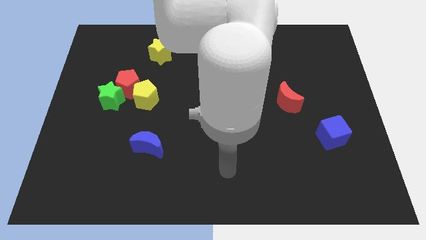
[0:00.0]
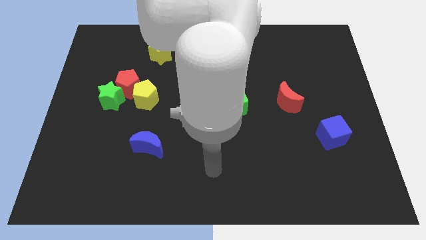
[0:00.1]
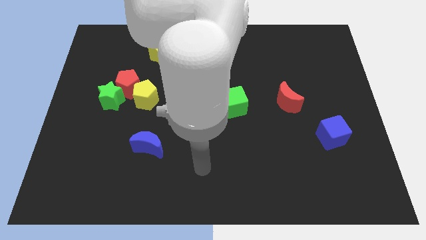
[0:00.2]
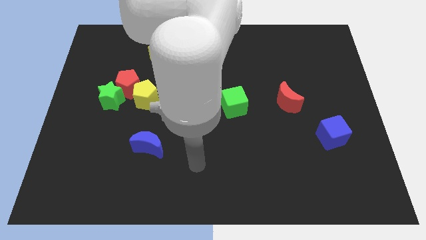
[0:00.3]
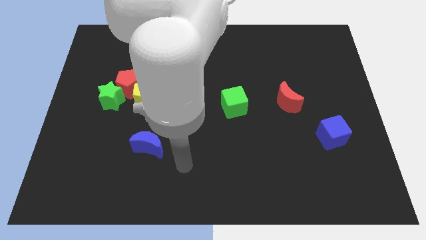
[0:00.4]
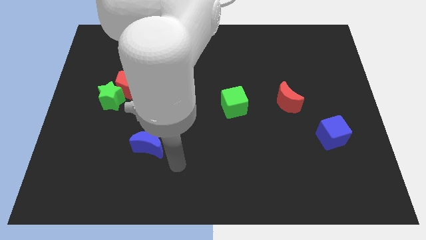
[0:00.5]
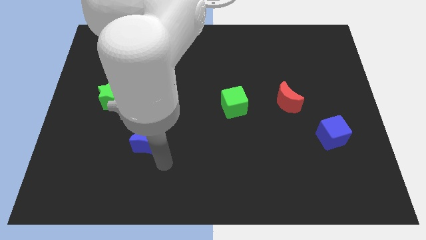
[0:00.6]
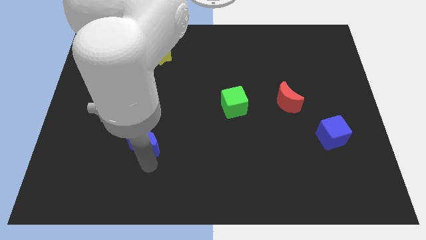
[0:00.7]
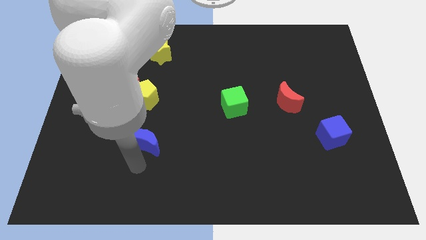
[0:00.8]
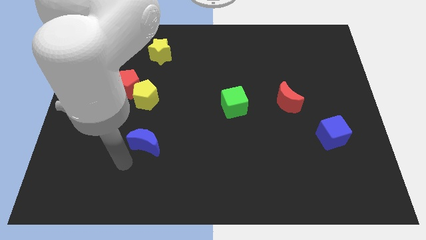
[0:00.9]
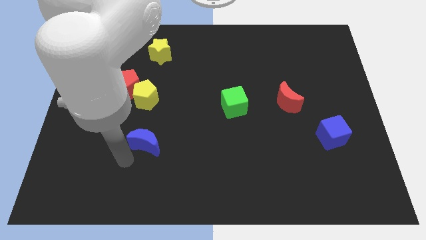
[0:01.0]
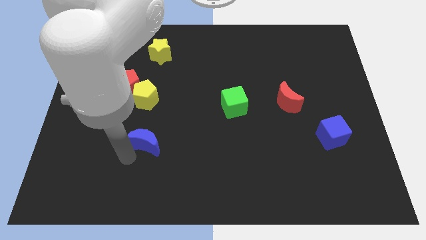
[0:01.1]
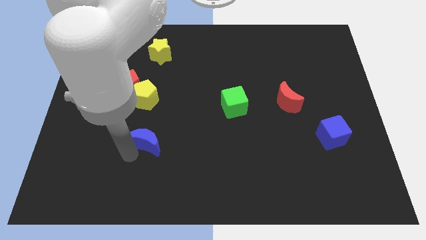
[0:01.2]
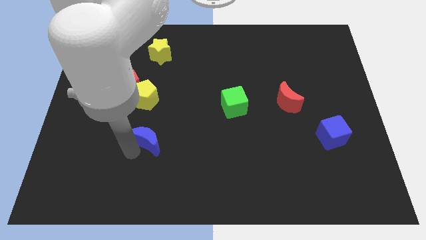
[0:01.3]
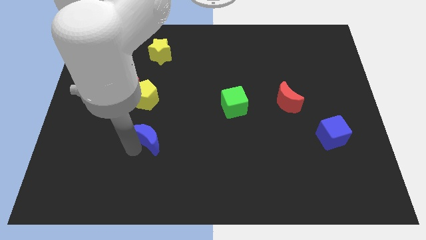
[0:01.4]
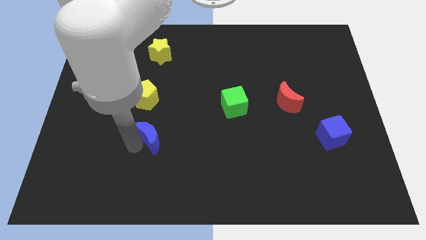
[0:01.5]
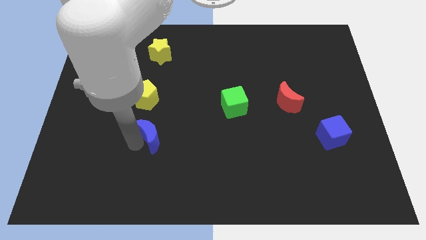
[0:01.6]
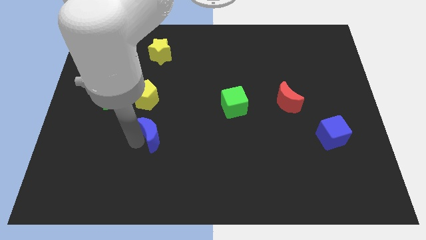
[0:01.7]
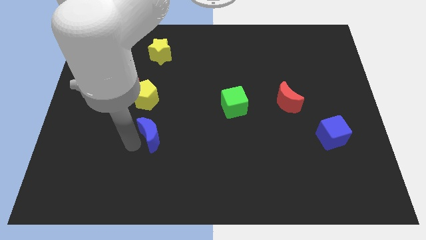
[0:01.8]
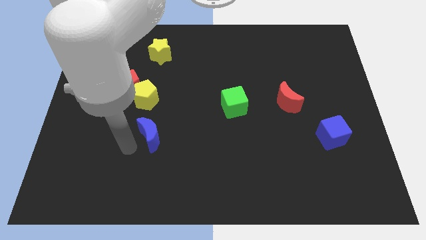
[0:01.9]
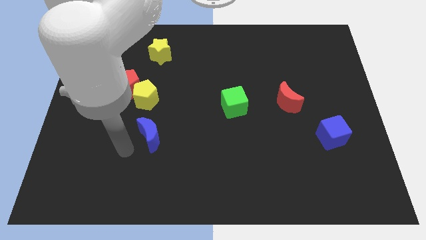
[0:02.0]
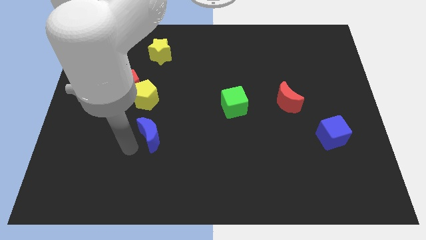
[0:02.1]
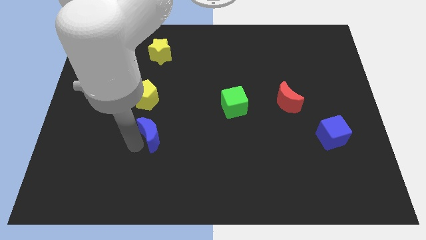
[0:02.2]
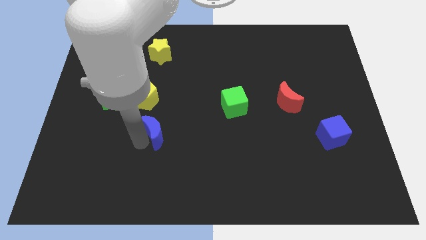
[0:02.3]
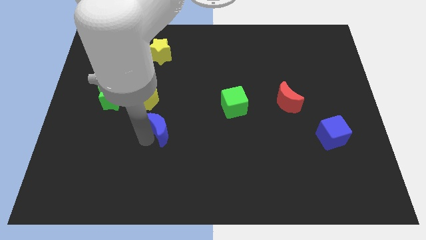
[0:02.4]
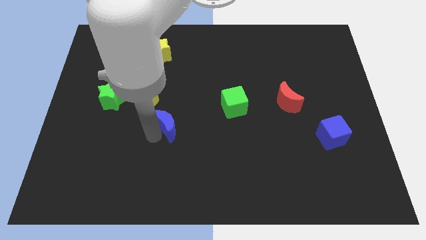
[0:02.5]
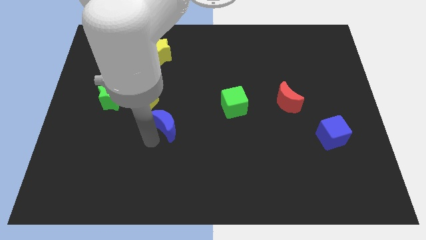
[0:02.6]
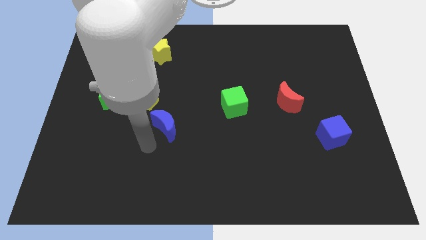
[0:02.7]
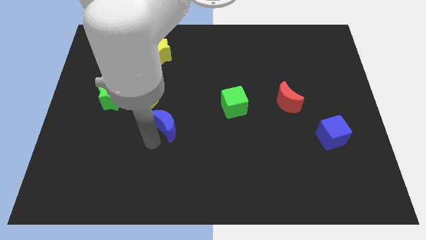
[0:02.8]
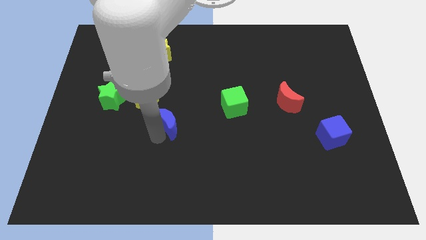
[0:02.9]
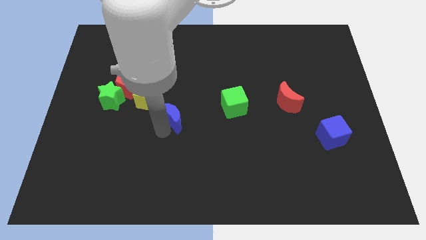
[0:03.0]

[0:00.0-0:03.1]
slightly push the blue moon upwards

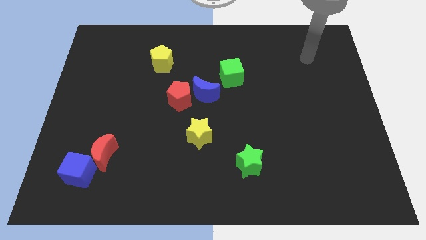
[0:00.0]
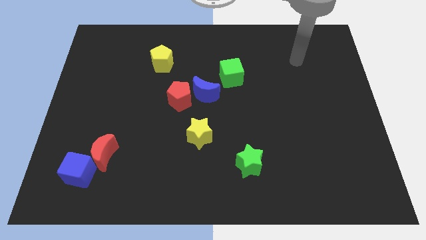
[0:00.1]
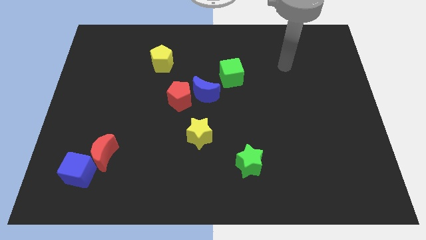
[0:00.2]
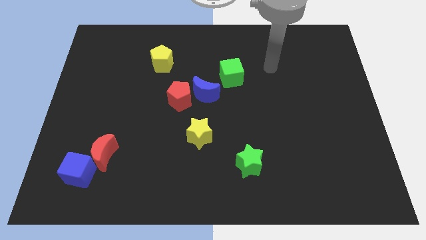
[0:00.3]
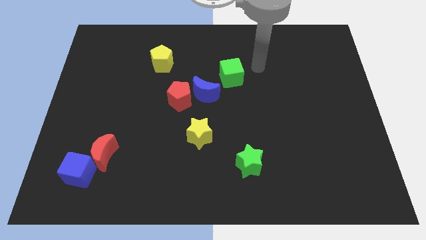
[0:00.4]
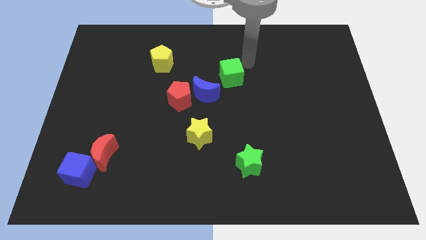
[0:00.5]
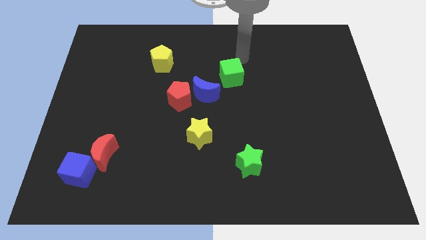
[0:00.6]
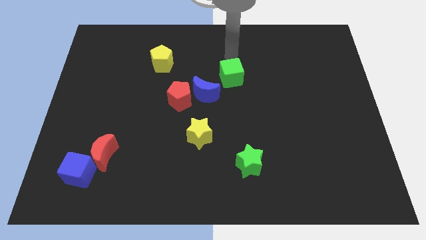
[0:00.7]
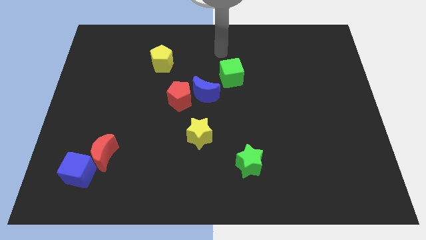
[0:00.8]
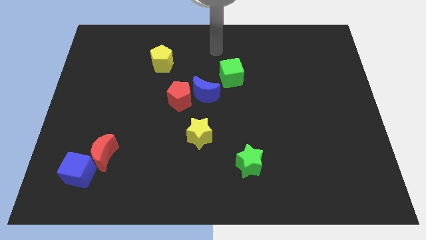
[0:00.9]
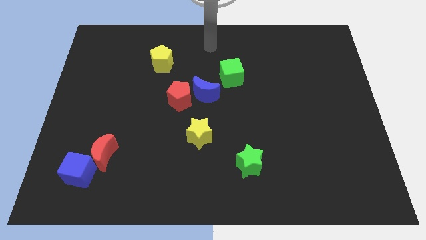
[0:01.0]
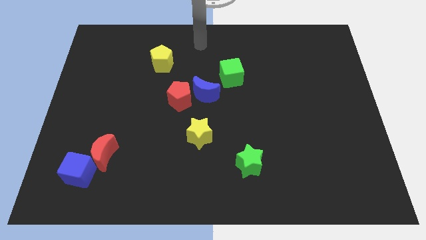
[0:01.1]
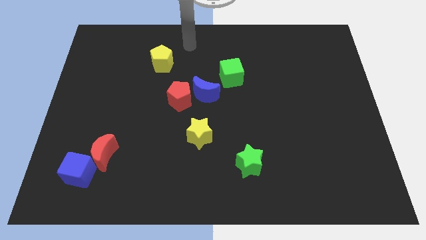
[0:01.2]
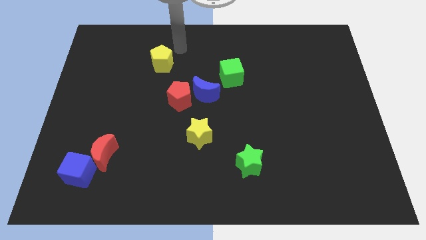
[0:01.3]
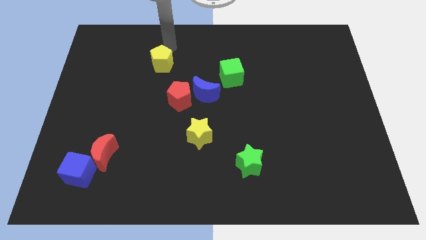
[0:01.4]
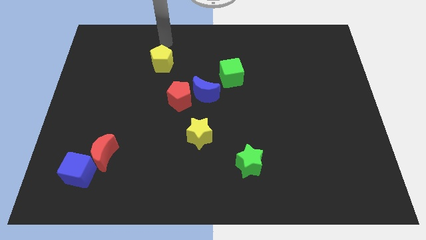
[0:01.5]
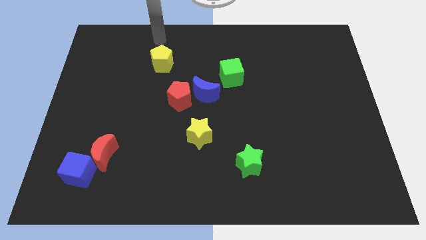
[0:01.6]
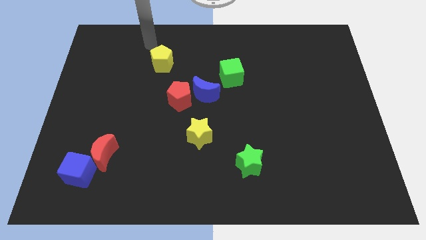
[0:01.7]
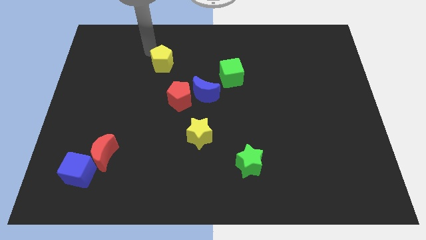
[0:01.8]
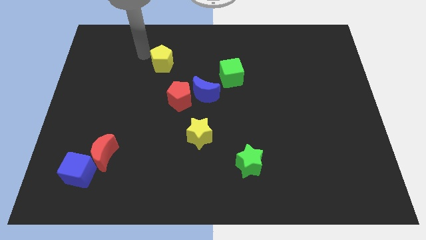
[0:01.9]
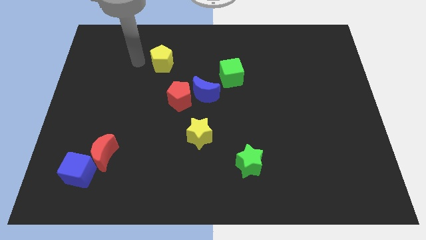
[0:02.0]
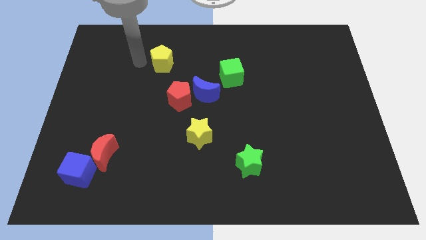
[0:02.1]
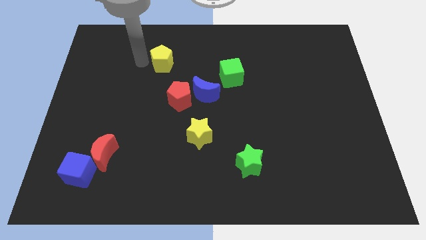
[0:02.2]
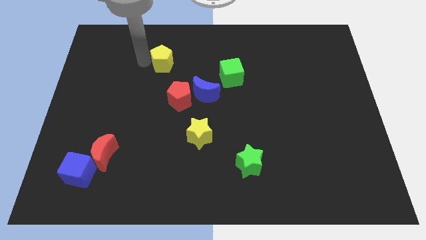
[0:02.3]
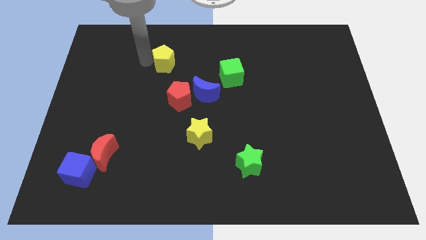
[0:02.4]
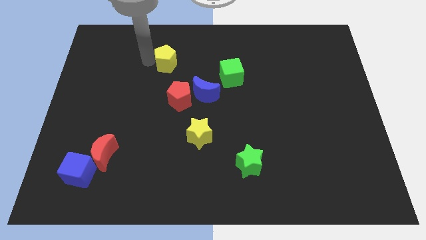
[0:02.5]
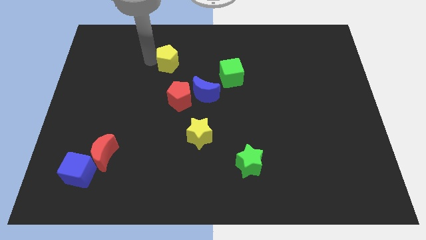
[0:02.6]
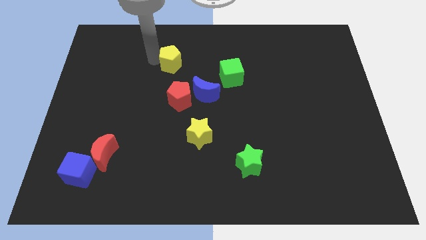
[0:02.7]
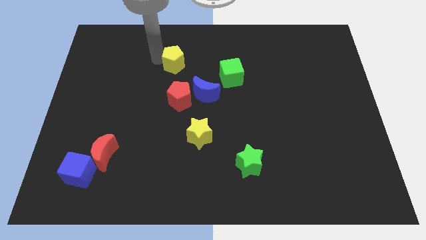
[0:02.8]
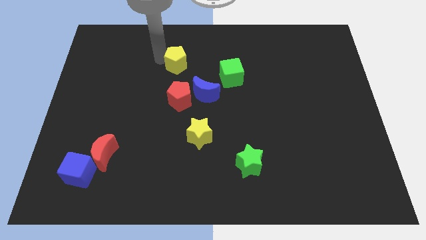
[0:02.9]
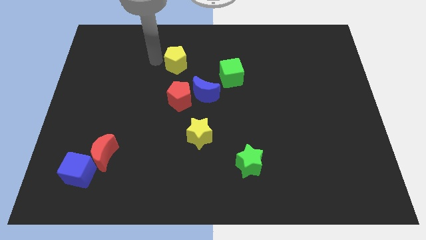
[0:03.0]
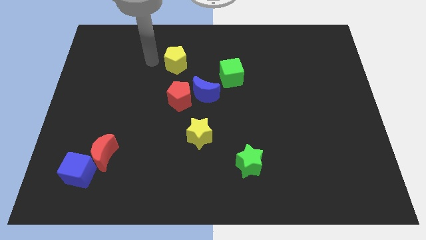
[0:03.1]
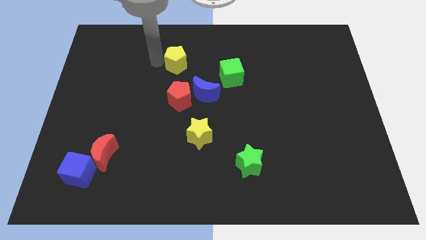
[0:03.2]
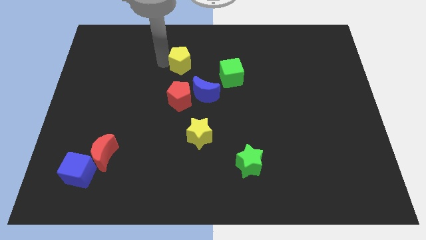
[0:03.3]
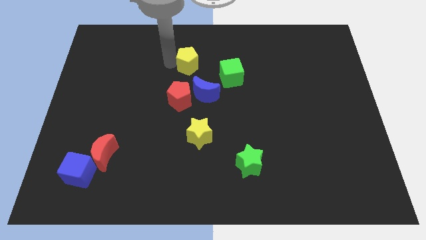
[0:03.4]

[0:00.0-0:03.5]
slightly push the yellow pentagon to the right

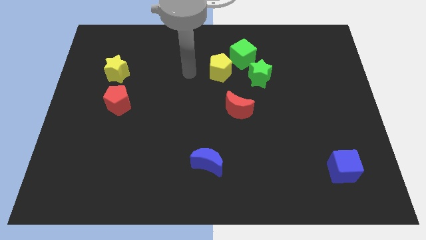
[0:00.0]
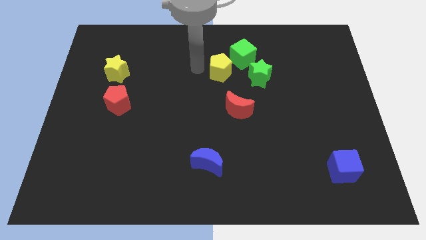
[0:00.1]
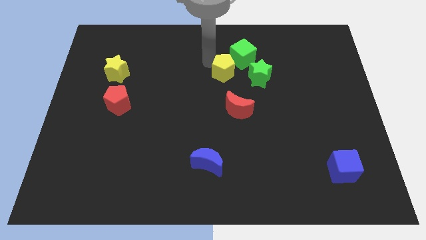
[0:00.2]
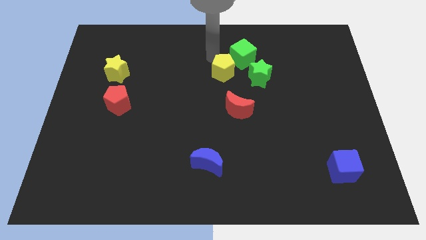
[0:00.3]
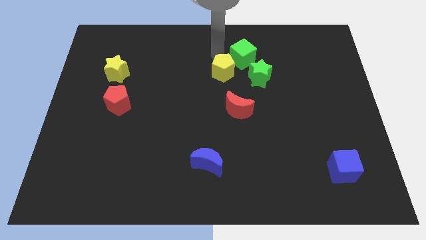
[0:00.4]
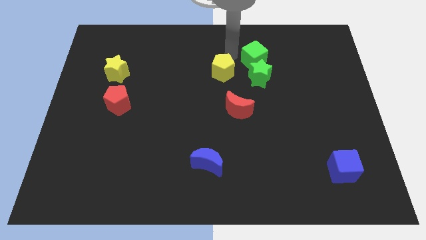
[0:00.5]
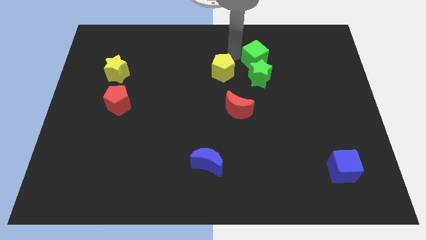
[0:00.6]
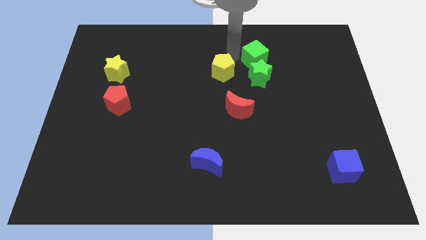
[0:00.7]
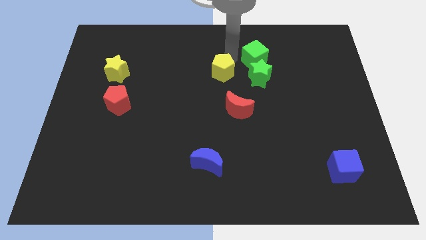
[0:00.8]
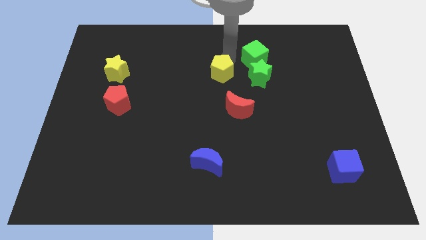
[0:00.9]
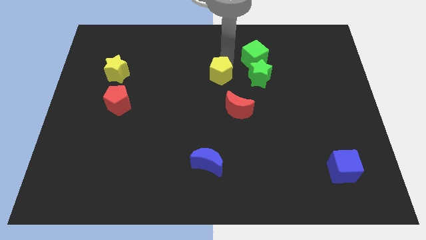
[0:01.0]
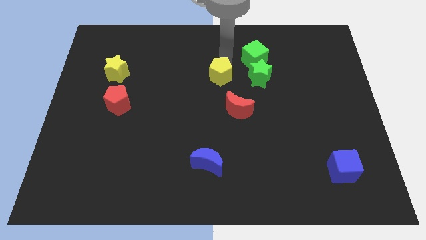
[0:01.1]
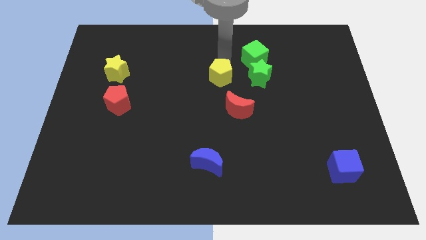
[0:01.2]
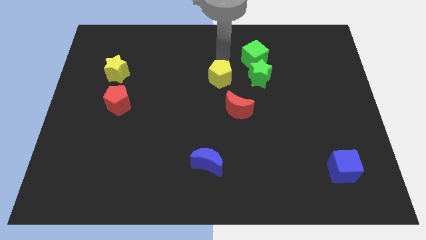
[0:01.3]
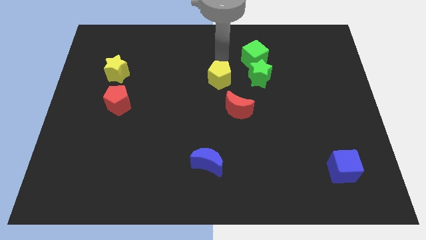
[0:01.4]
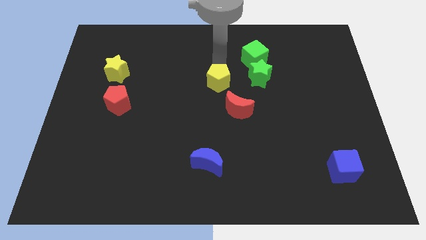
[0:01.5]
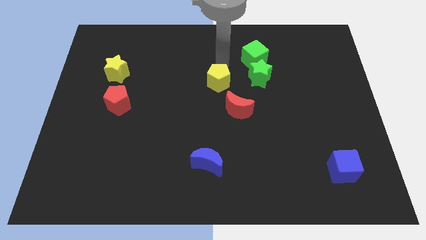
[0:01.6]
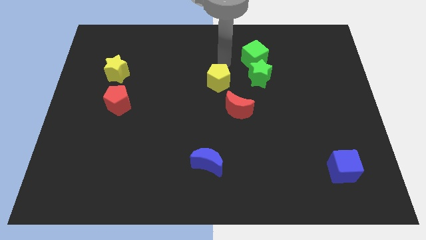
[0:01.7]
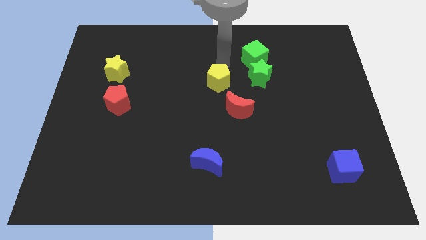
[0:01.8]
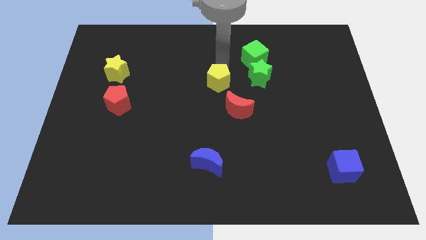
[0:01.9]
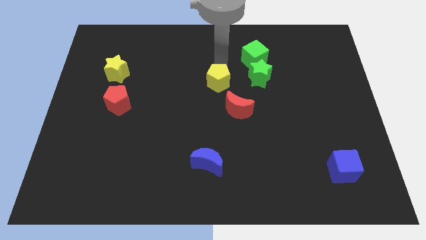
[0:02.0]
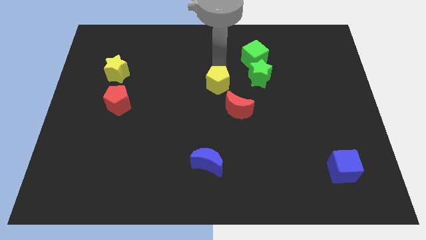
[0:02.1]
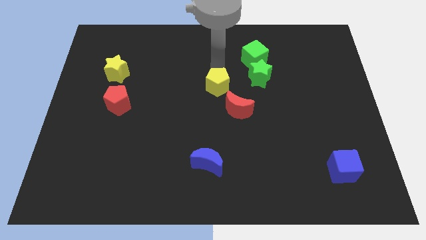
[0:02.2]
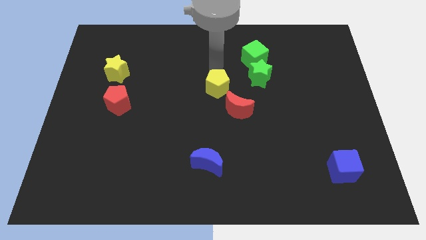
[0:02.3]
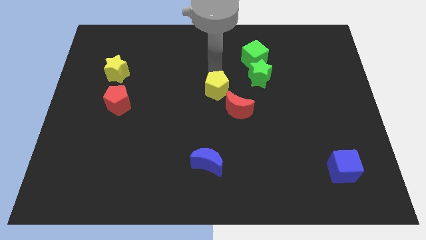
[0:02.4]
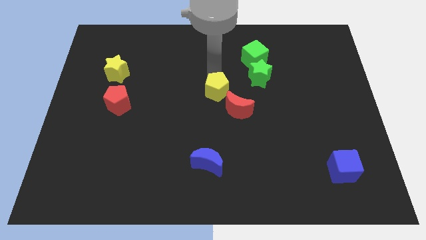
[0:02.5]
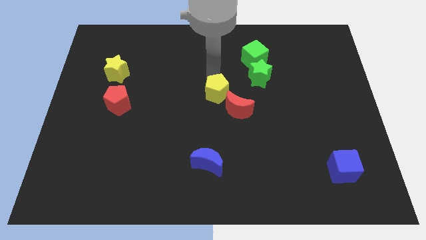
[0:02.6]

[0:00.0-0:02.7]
slide the yellow pentagon down slightly
